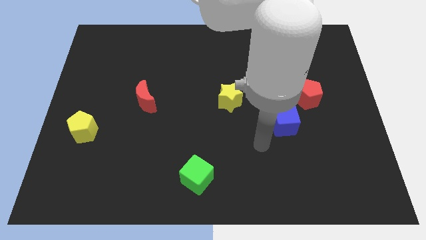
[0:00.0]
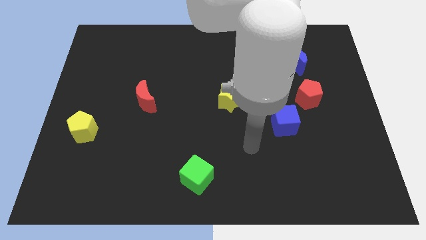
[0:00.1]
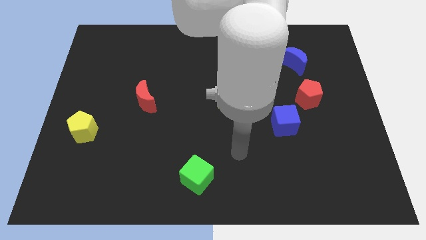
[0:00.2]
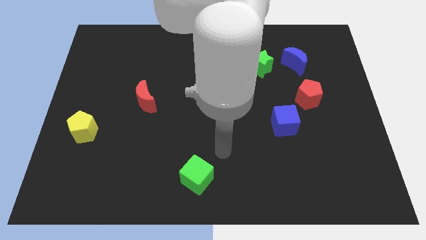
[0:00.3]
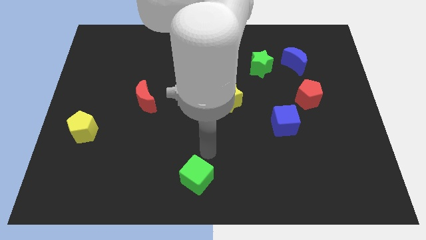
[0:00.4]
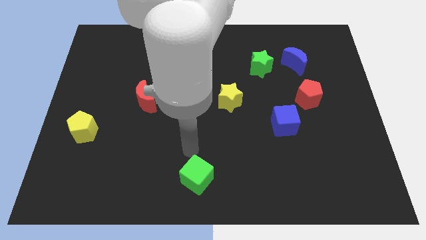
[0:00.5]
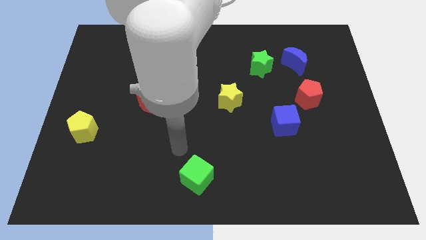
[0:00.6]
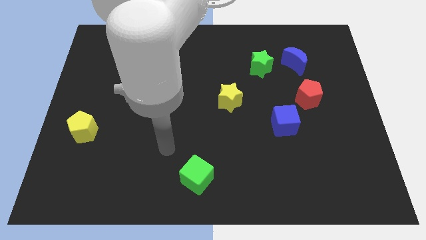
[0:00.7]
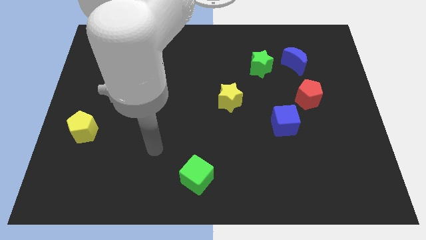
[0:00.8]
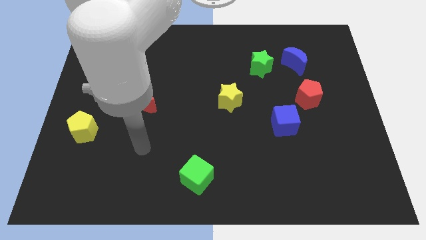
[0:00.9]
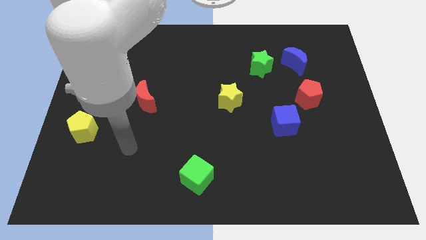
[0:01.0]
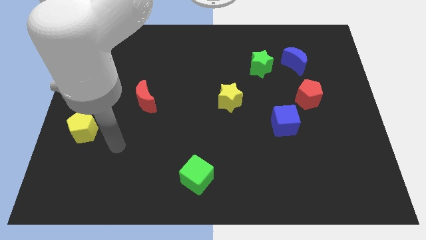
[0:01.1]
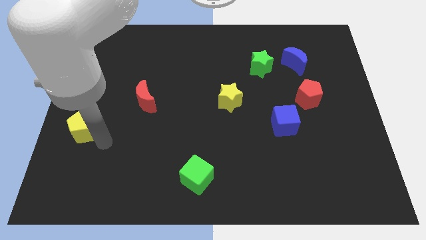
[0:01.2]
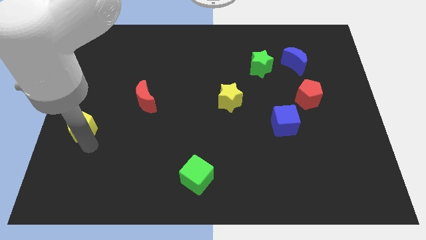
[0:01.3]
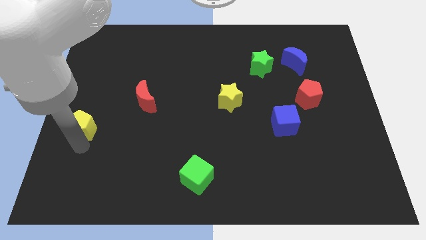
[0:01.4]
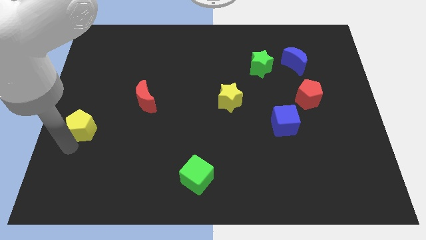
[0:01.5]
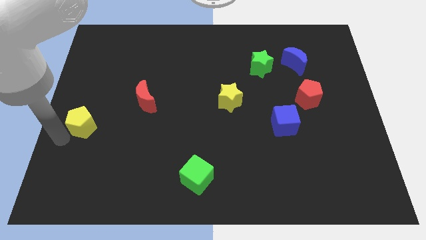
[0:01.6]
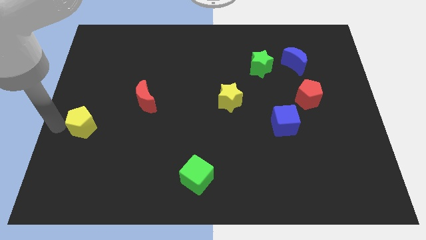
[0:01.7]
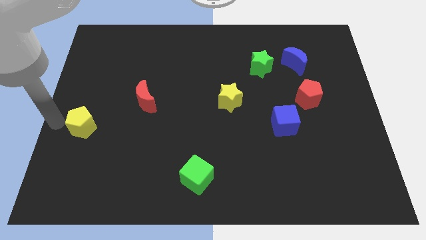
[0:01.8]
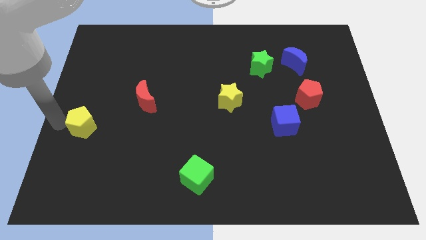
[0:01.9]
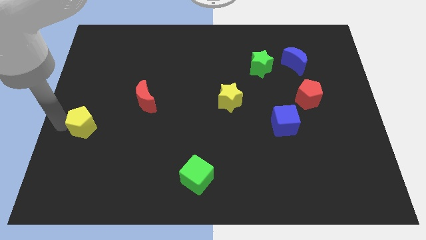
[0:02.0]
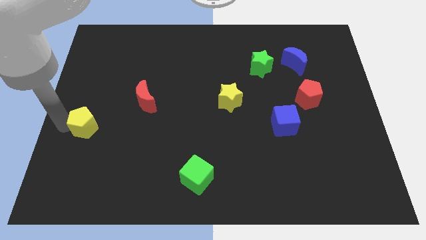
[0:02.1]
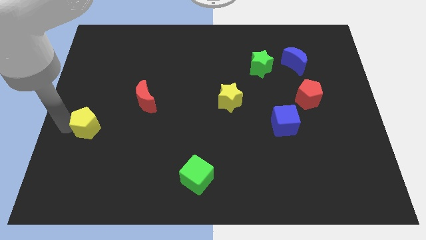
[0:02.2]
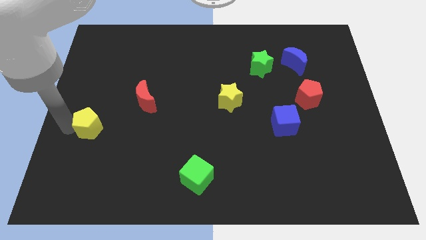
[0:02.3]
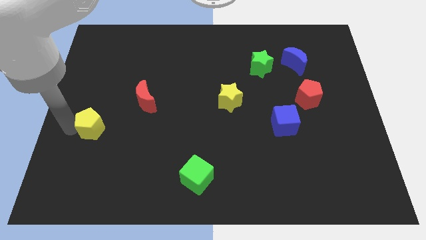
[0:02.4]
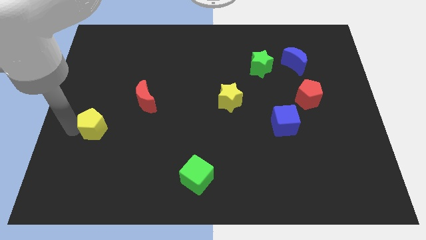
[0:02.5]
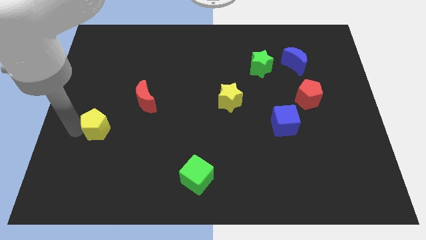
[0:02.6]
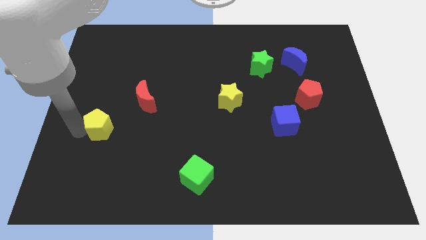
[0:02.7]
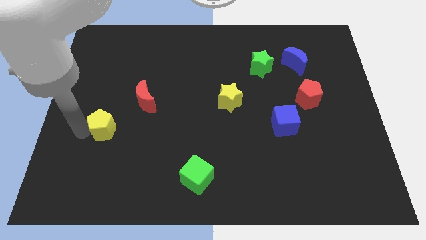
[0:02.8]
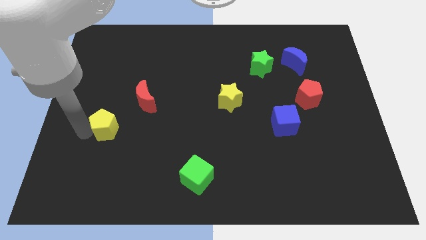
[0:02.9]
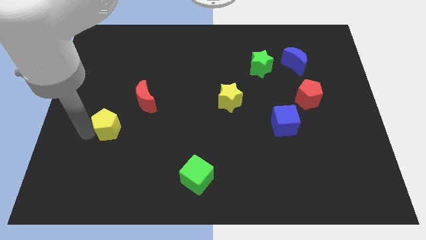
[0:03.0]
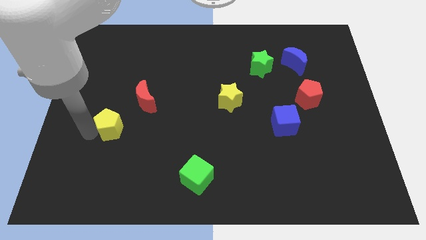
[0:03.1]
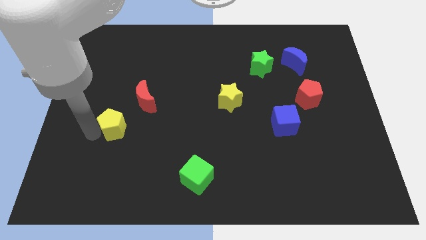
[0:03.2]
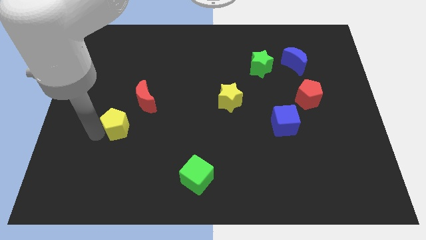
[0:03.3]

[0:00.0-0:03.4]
push the yellow pentagon to the right somewhat

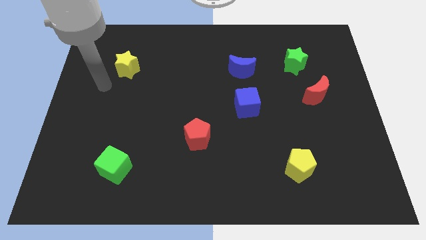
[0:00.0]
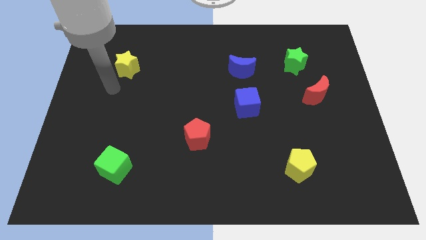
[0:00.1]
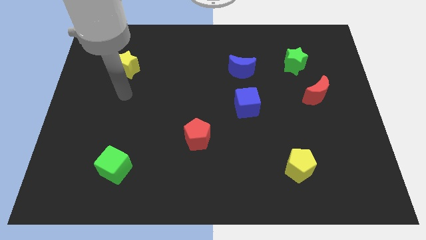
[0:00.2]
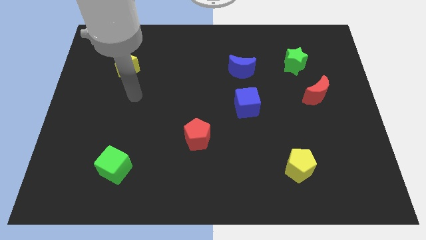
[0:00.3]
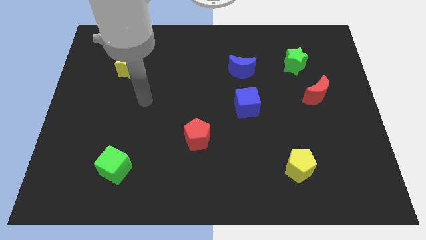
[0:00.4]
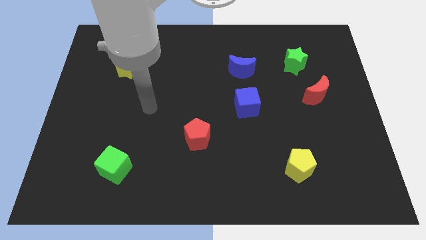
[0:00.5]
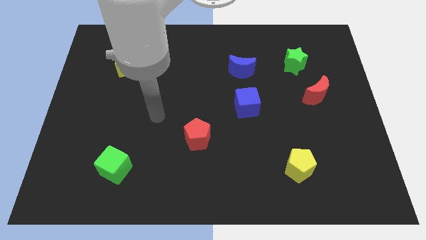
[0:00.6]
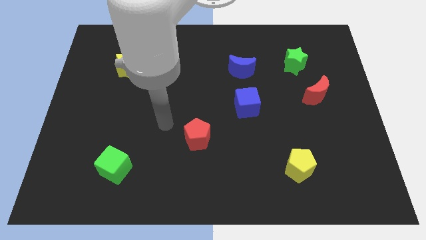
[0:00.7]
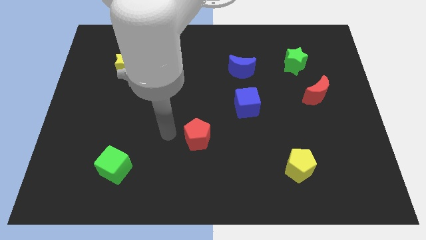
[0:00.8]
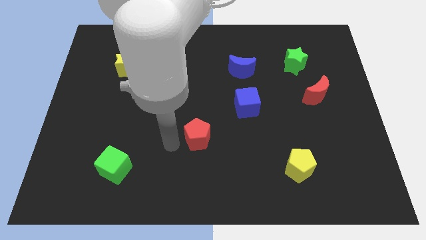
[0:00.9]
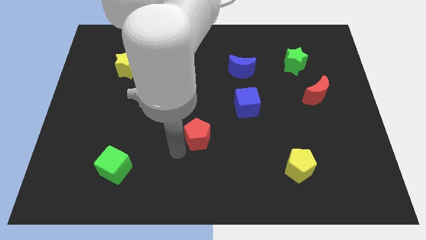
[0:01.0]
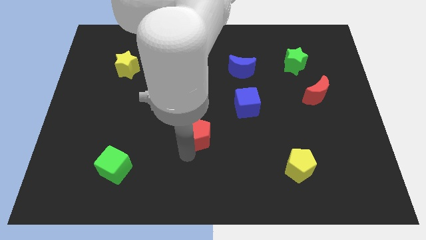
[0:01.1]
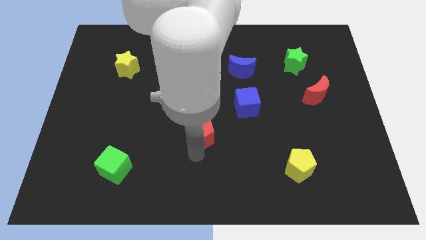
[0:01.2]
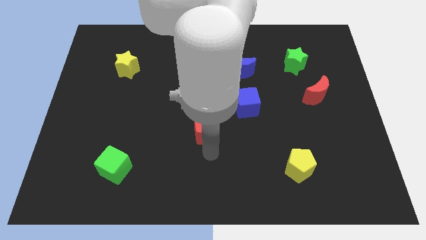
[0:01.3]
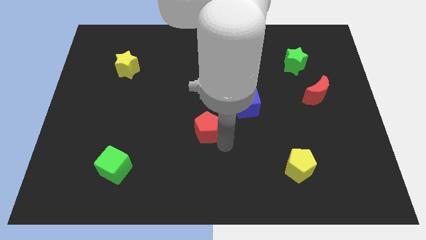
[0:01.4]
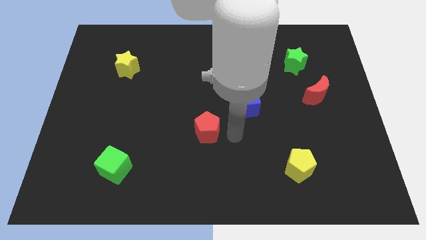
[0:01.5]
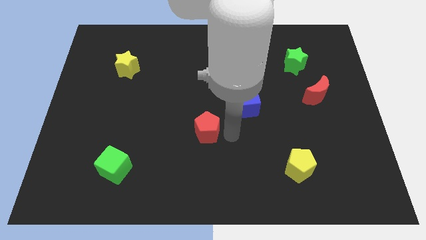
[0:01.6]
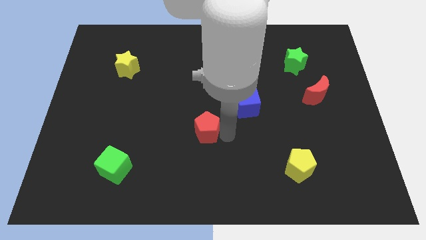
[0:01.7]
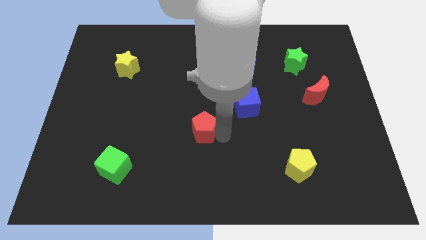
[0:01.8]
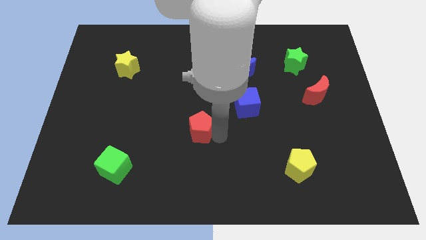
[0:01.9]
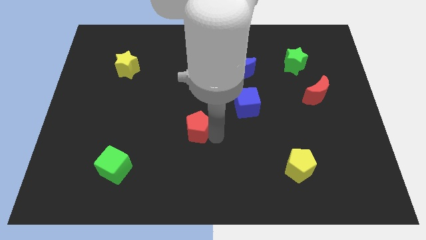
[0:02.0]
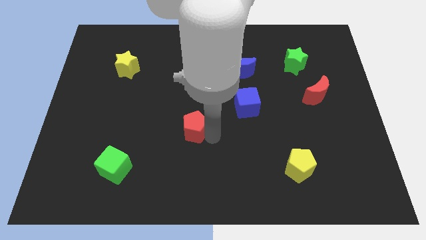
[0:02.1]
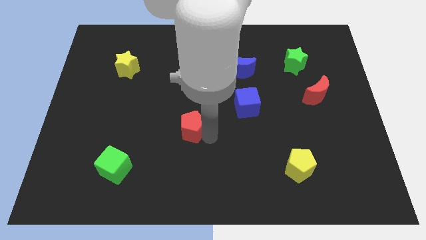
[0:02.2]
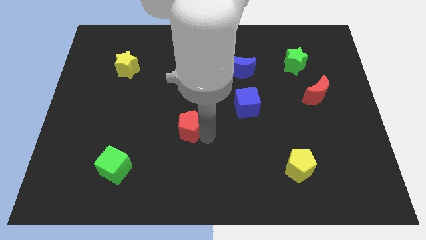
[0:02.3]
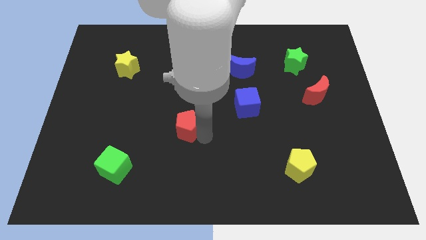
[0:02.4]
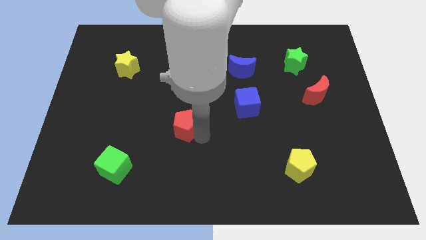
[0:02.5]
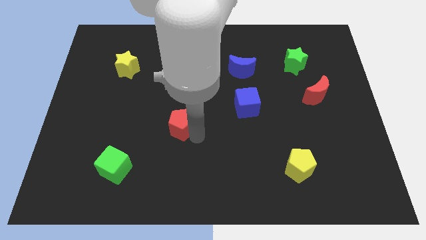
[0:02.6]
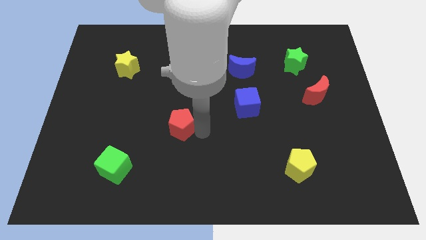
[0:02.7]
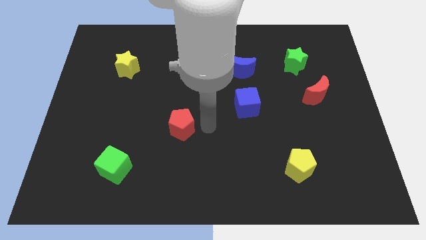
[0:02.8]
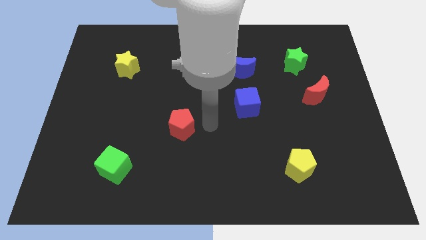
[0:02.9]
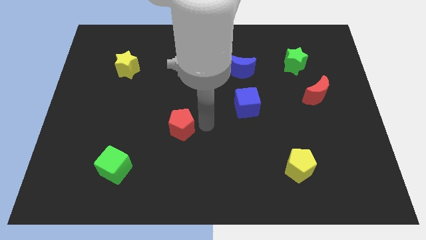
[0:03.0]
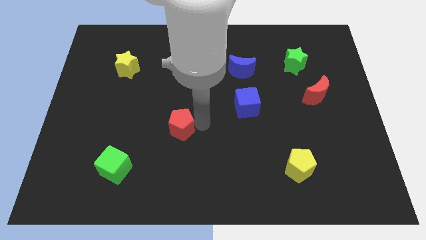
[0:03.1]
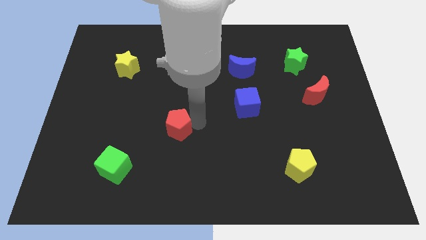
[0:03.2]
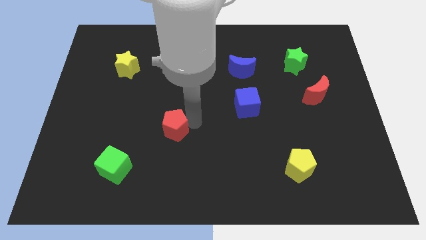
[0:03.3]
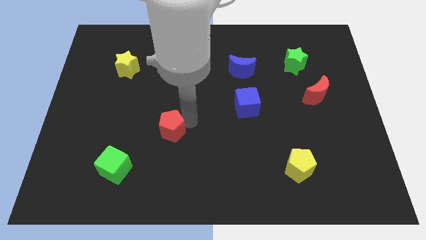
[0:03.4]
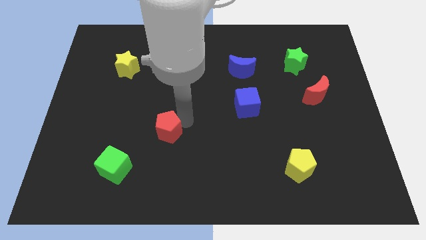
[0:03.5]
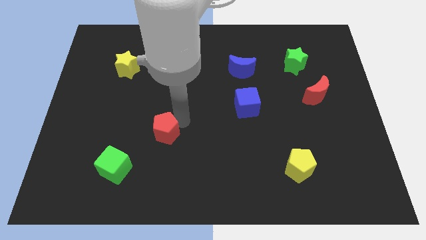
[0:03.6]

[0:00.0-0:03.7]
push the red pentagon slightly left

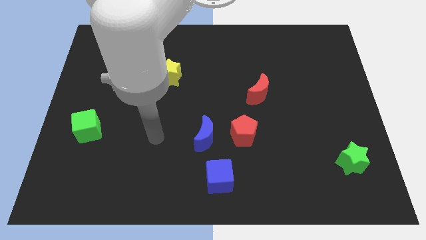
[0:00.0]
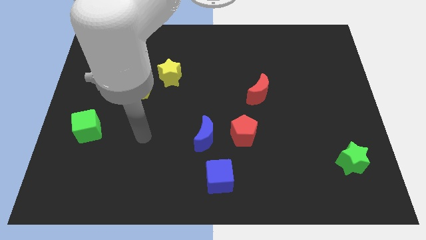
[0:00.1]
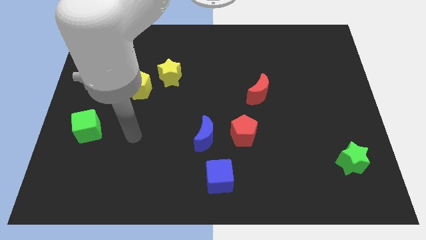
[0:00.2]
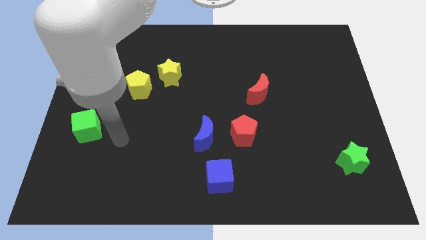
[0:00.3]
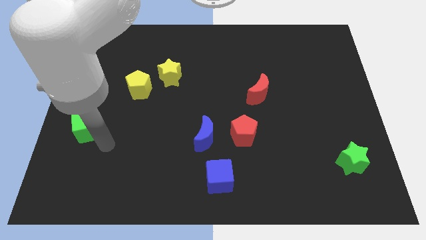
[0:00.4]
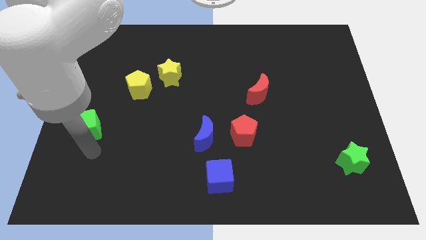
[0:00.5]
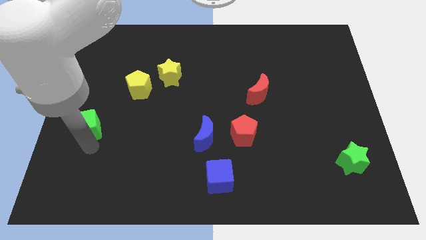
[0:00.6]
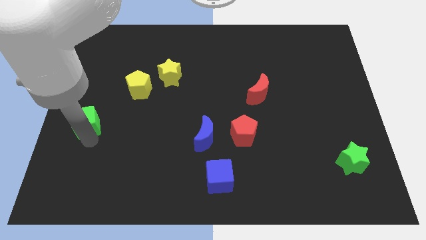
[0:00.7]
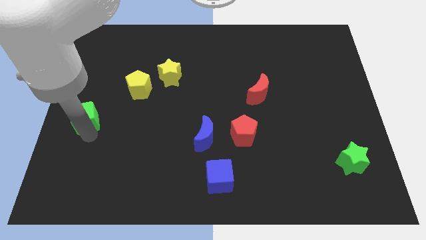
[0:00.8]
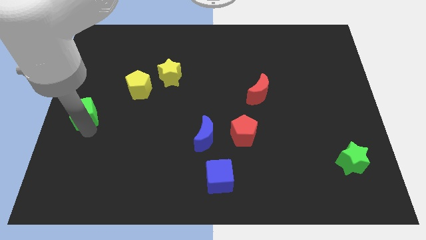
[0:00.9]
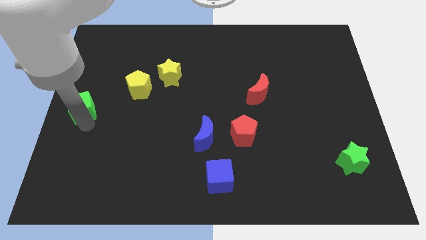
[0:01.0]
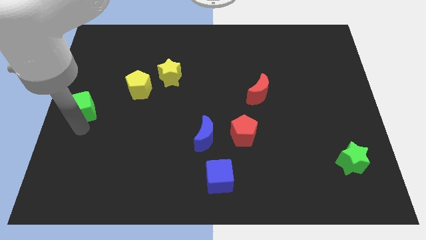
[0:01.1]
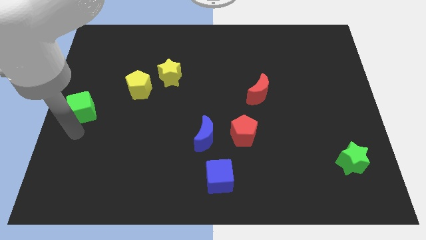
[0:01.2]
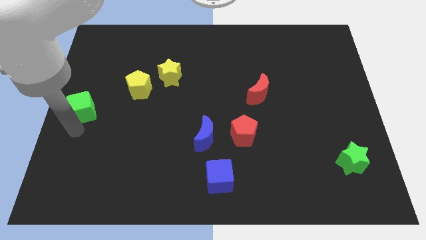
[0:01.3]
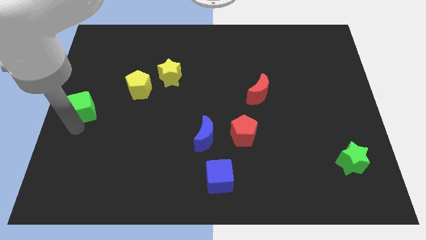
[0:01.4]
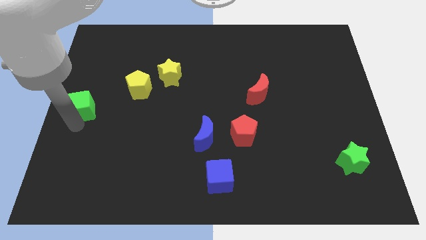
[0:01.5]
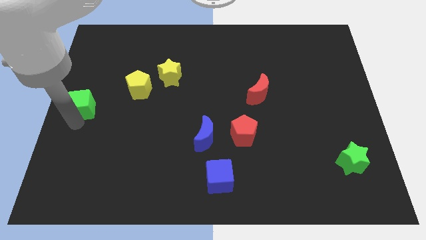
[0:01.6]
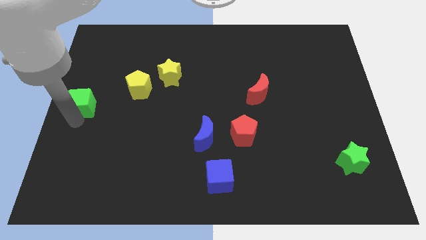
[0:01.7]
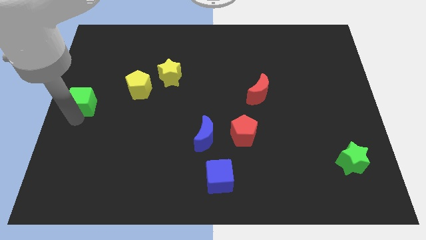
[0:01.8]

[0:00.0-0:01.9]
move the green cube upwards a bit
